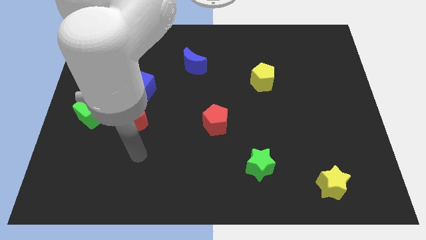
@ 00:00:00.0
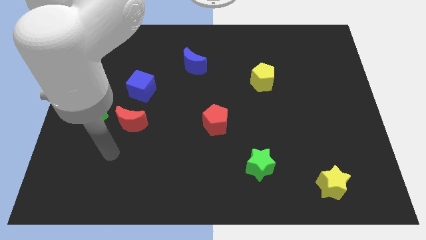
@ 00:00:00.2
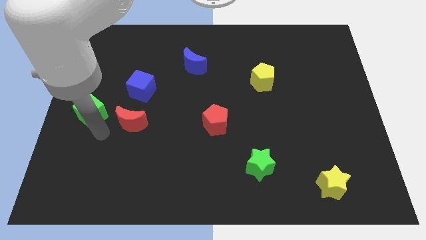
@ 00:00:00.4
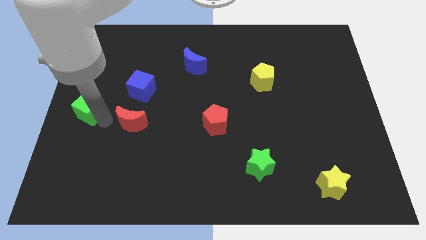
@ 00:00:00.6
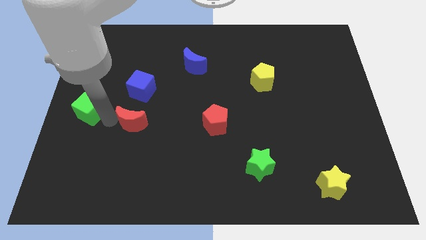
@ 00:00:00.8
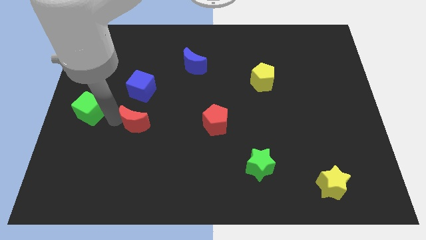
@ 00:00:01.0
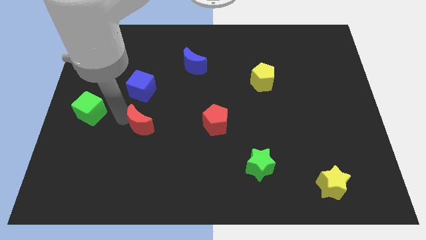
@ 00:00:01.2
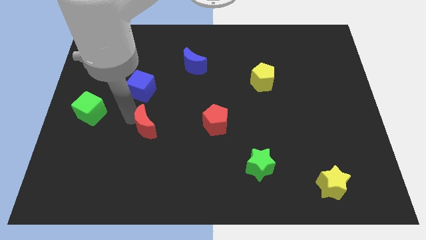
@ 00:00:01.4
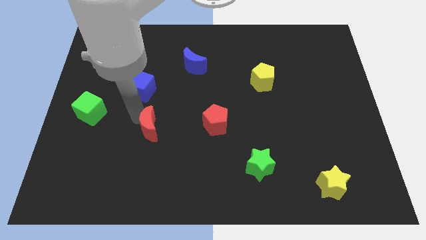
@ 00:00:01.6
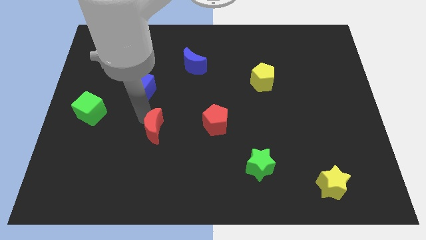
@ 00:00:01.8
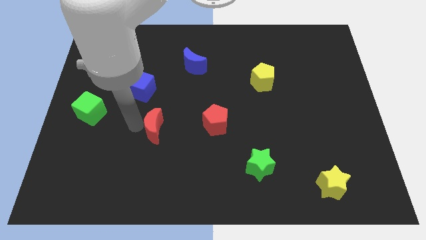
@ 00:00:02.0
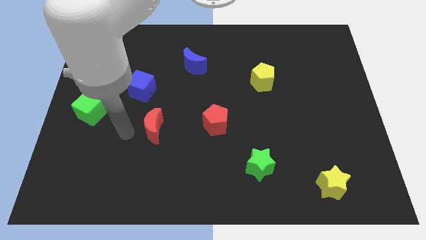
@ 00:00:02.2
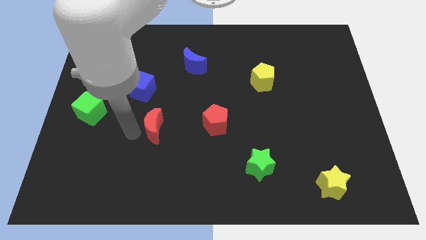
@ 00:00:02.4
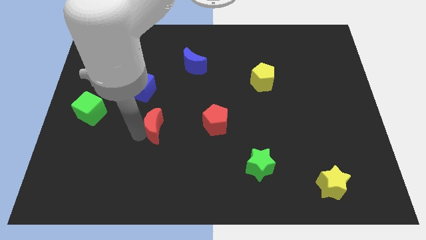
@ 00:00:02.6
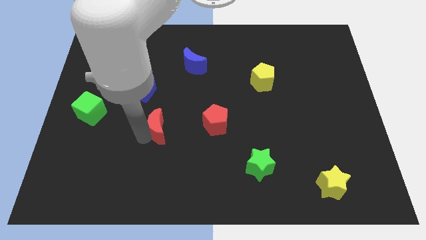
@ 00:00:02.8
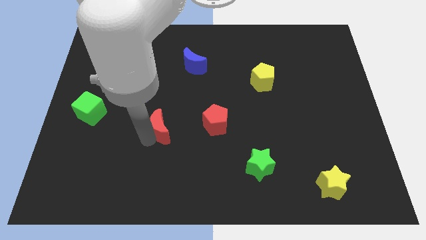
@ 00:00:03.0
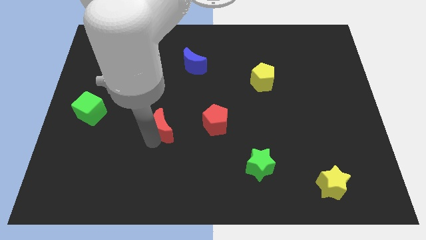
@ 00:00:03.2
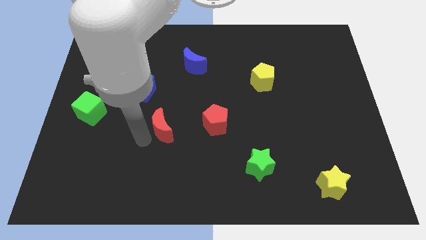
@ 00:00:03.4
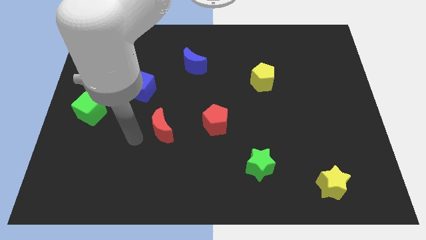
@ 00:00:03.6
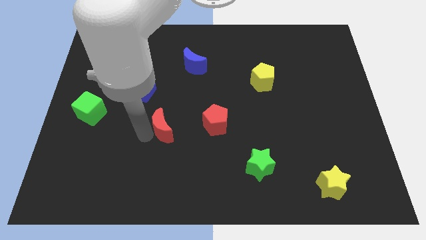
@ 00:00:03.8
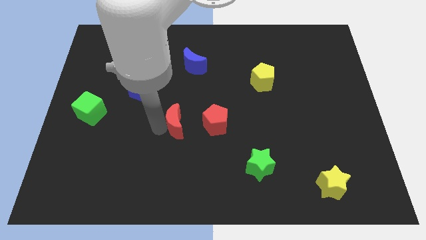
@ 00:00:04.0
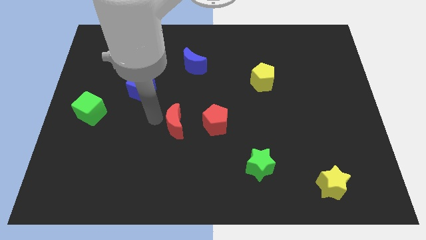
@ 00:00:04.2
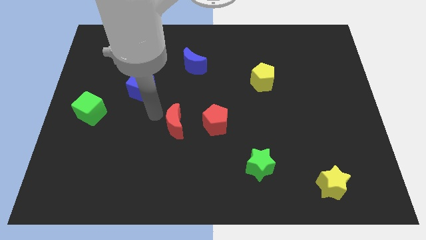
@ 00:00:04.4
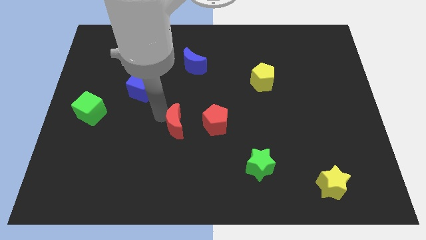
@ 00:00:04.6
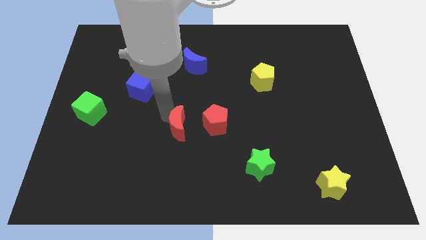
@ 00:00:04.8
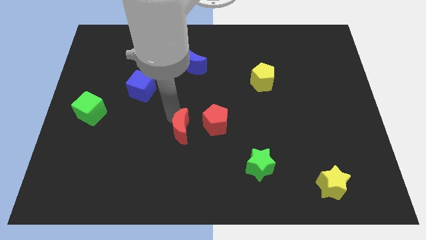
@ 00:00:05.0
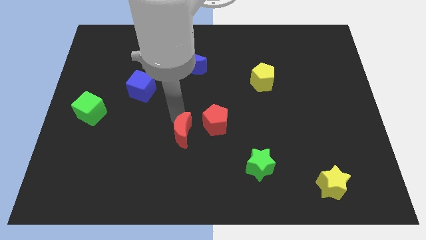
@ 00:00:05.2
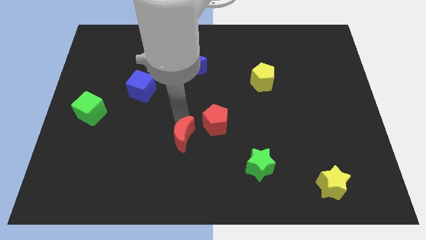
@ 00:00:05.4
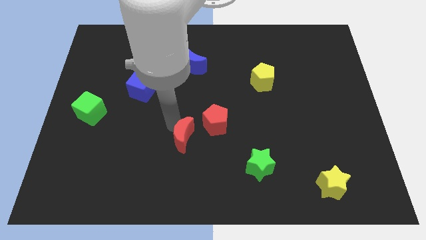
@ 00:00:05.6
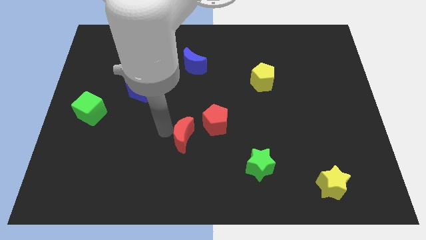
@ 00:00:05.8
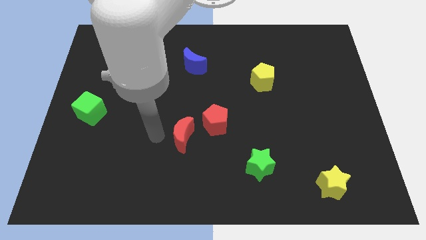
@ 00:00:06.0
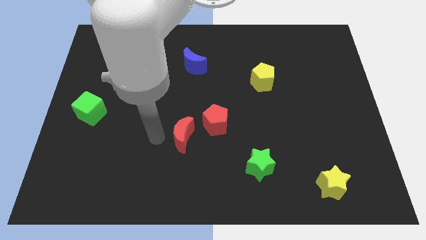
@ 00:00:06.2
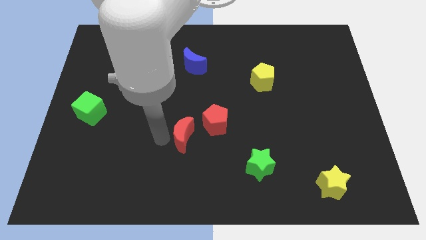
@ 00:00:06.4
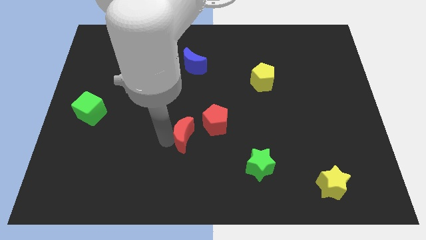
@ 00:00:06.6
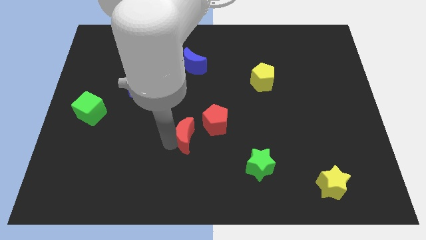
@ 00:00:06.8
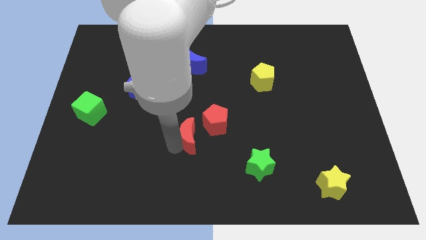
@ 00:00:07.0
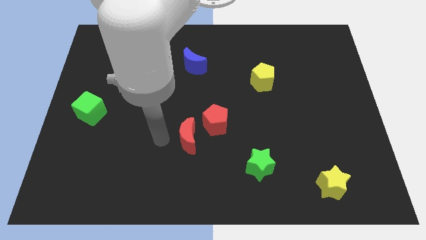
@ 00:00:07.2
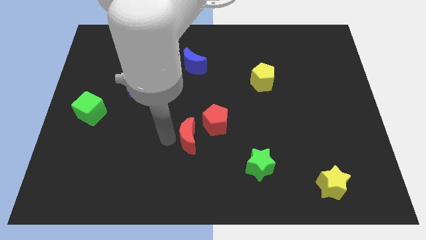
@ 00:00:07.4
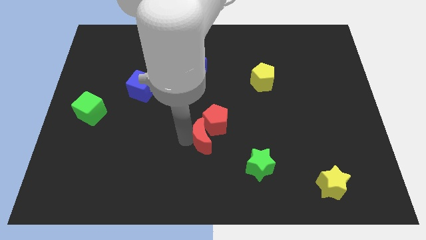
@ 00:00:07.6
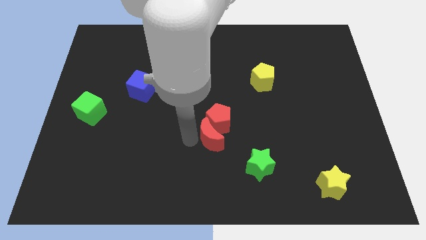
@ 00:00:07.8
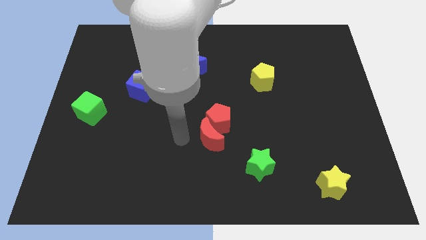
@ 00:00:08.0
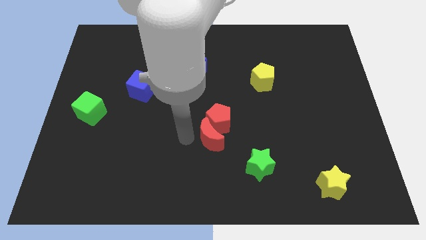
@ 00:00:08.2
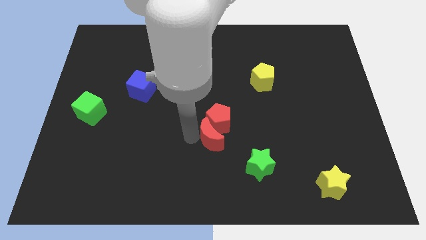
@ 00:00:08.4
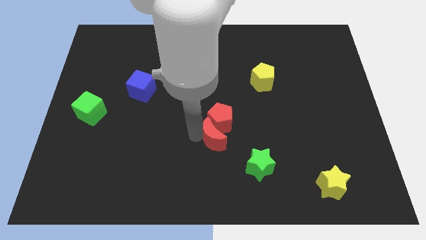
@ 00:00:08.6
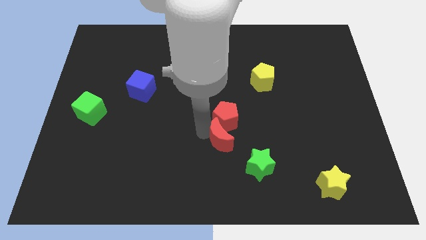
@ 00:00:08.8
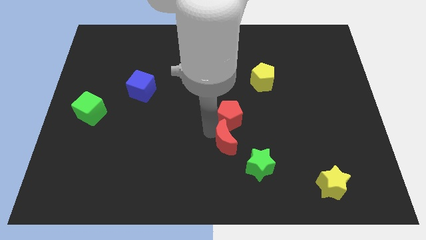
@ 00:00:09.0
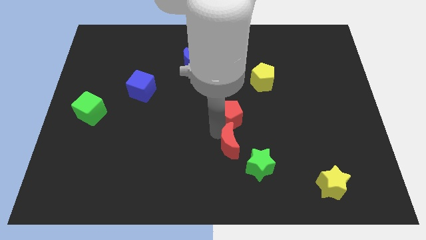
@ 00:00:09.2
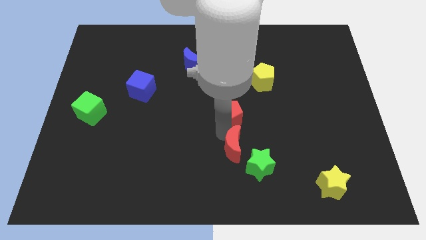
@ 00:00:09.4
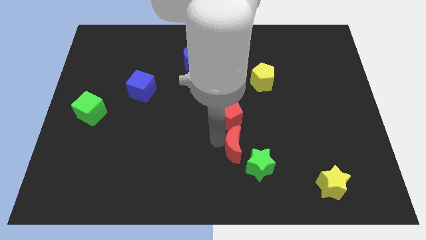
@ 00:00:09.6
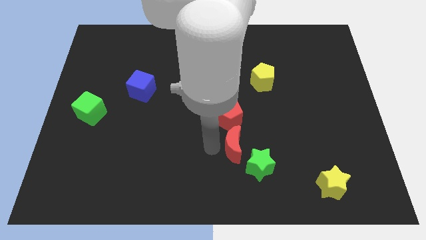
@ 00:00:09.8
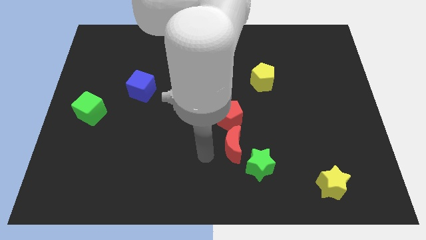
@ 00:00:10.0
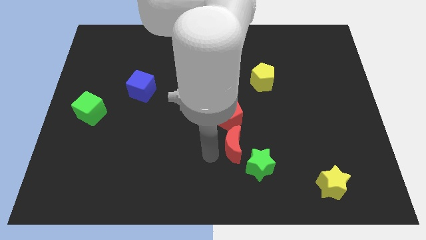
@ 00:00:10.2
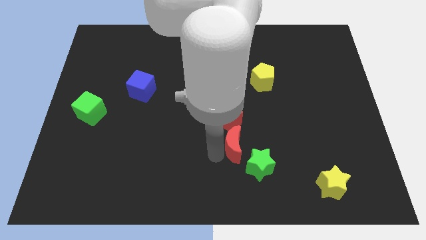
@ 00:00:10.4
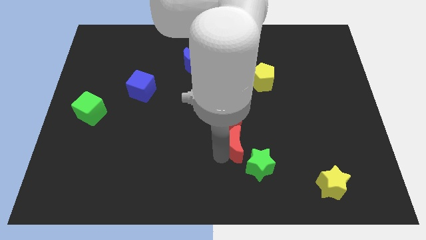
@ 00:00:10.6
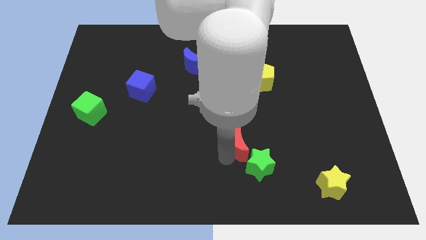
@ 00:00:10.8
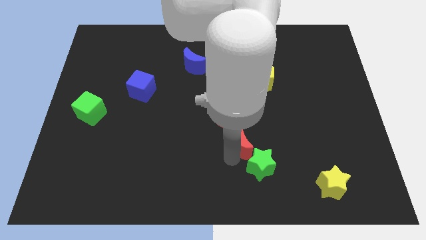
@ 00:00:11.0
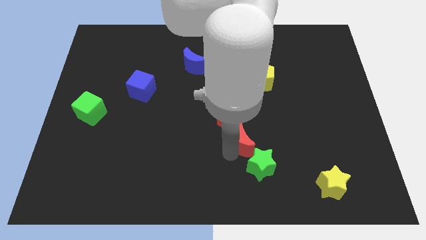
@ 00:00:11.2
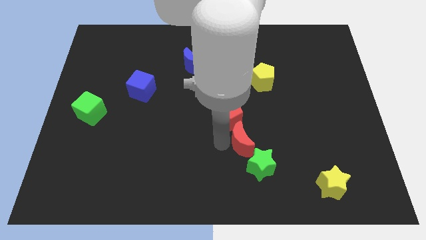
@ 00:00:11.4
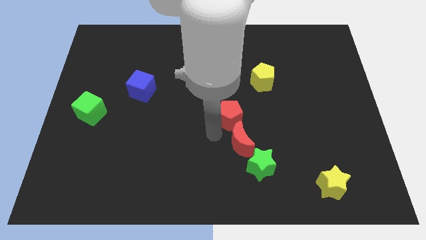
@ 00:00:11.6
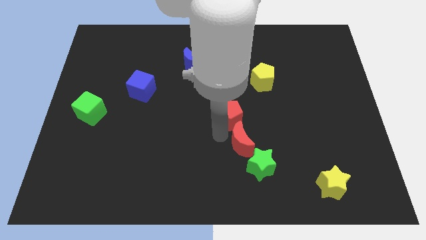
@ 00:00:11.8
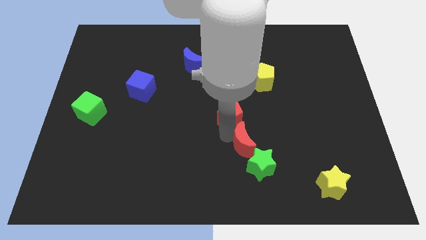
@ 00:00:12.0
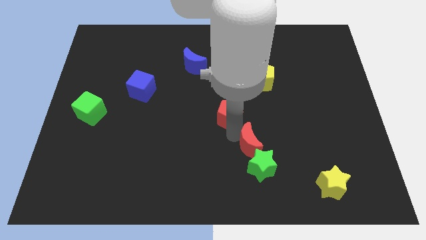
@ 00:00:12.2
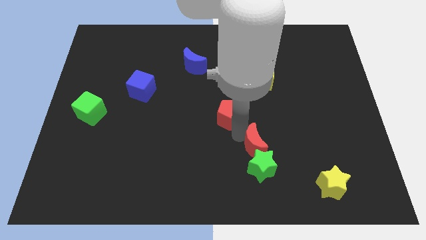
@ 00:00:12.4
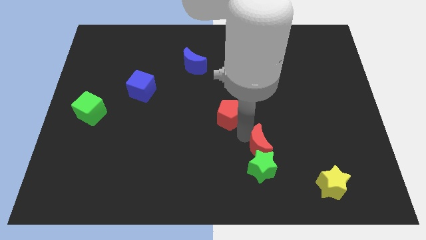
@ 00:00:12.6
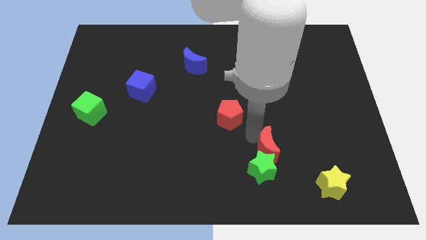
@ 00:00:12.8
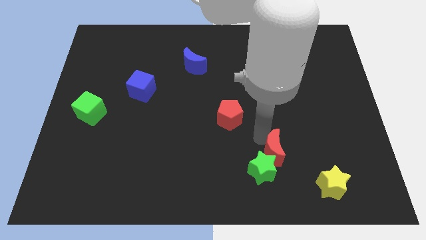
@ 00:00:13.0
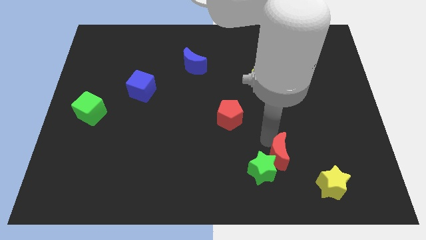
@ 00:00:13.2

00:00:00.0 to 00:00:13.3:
put the red moon to the top left of the yellow star
